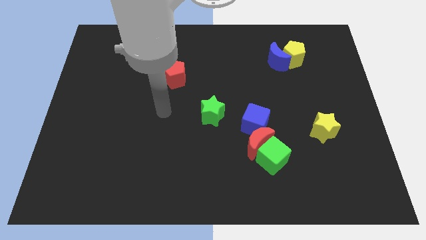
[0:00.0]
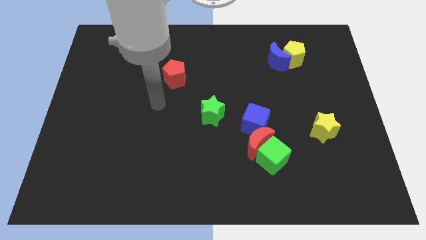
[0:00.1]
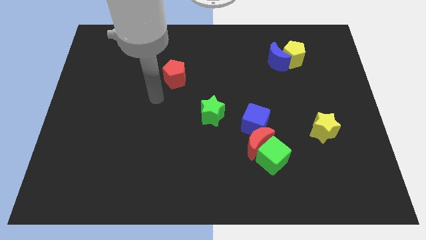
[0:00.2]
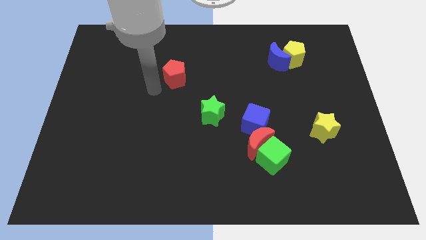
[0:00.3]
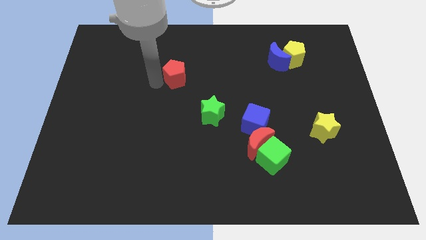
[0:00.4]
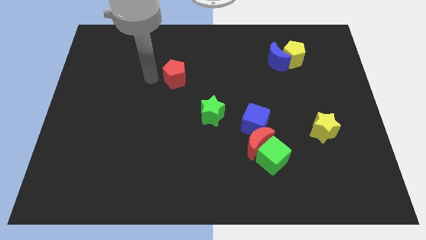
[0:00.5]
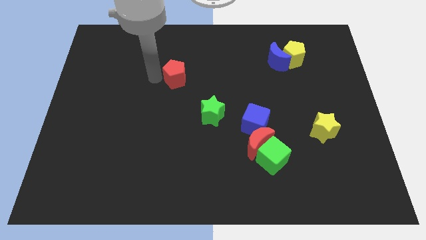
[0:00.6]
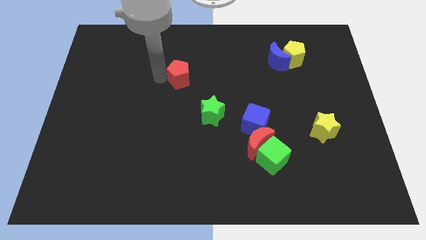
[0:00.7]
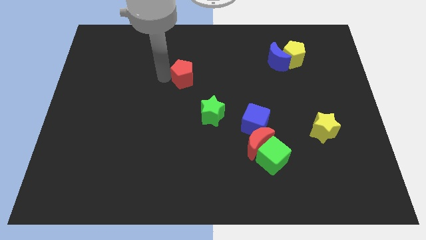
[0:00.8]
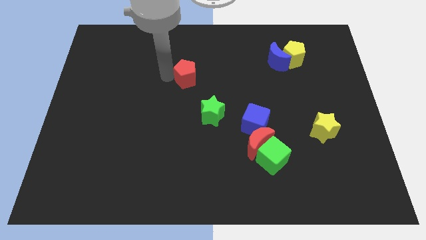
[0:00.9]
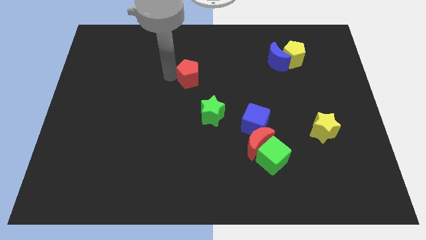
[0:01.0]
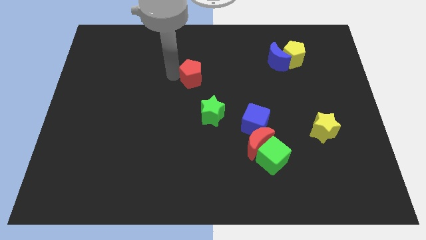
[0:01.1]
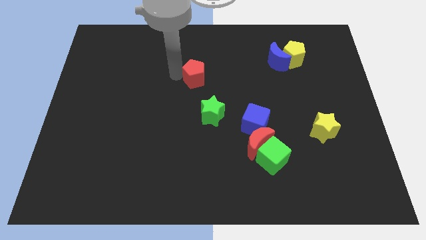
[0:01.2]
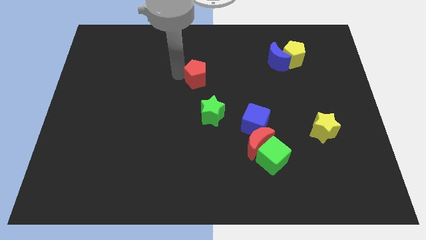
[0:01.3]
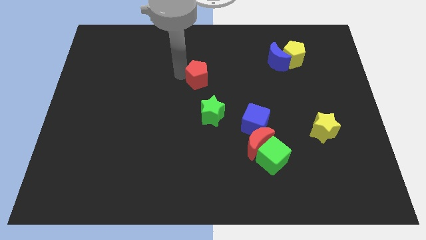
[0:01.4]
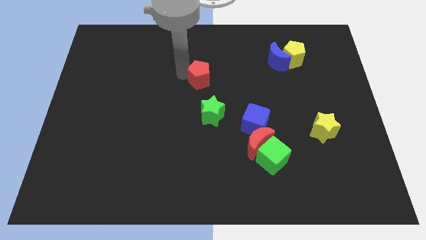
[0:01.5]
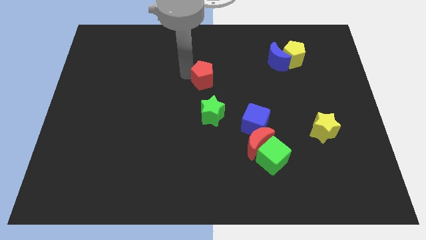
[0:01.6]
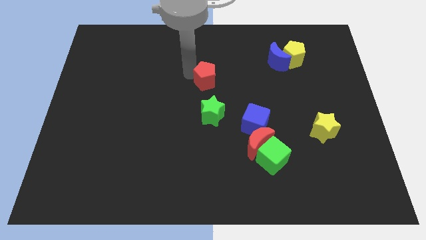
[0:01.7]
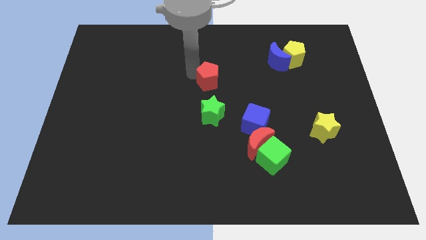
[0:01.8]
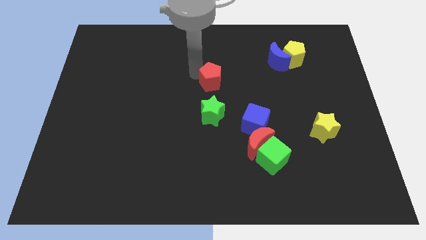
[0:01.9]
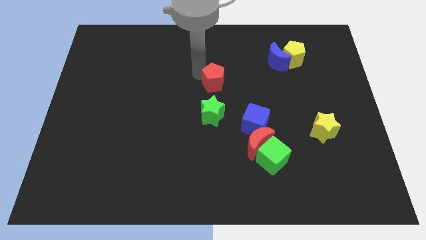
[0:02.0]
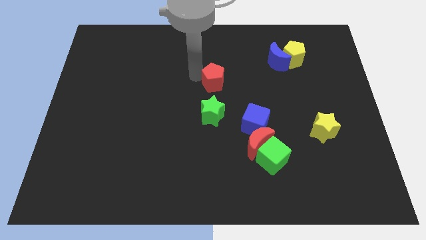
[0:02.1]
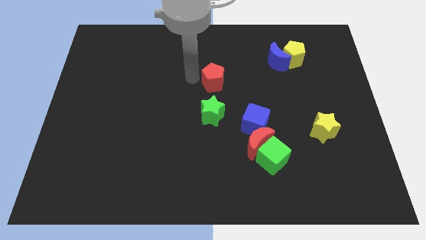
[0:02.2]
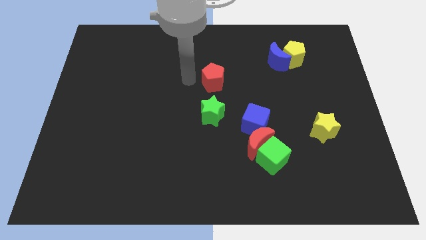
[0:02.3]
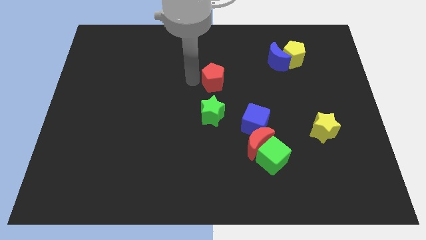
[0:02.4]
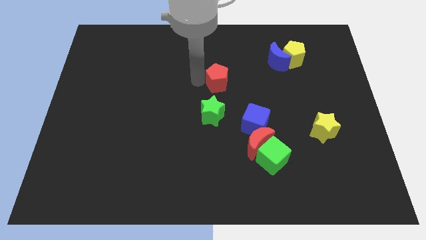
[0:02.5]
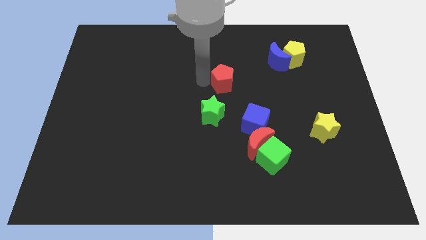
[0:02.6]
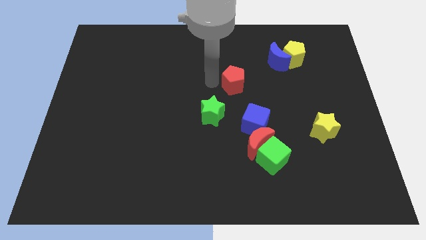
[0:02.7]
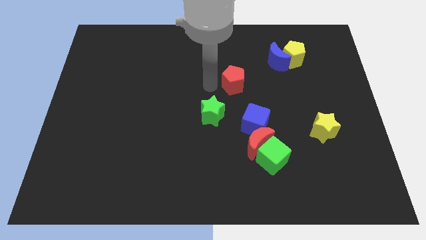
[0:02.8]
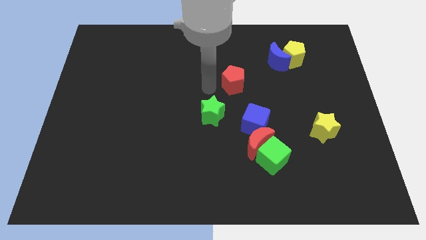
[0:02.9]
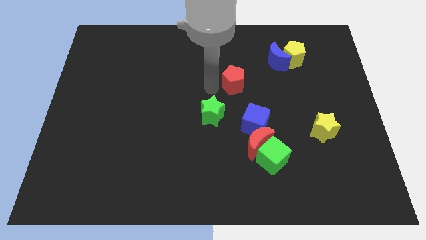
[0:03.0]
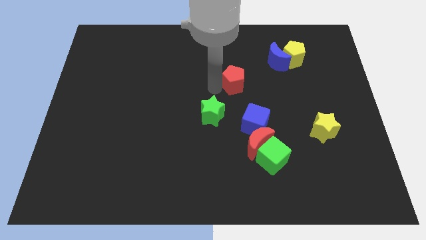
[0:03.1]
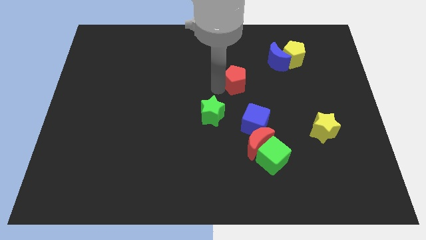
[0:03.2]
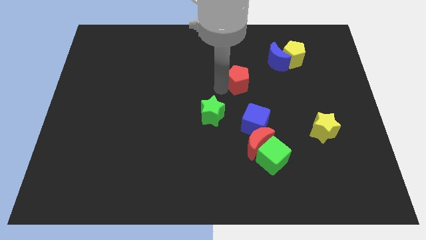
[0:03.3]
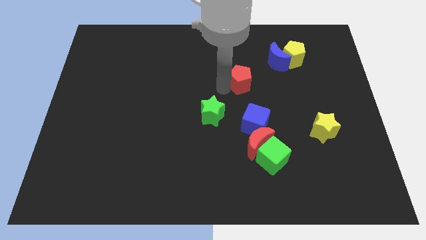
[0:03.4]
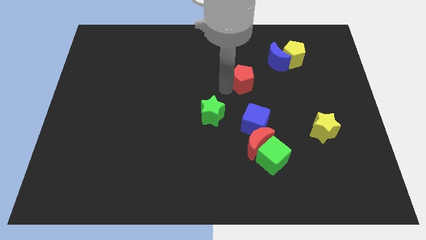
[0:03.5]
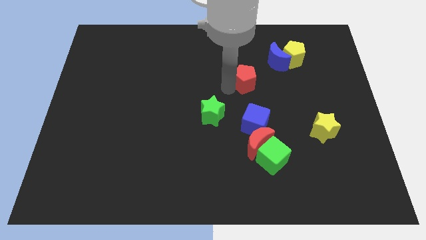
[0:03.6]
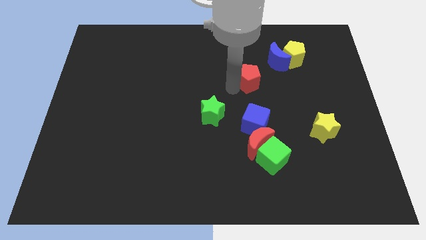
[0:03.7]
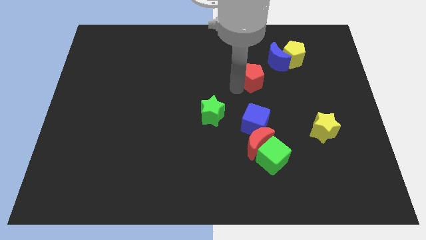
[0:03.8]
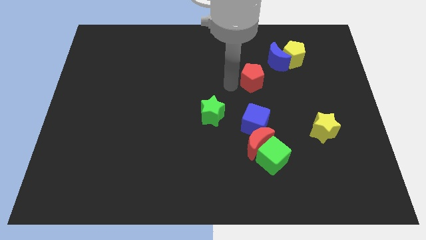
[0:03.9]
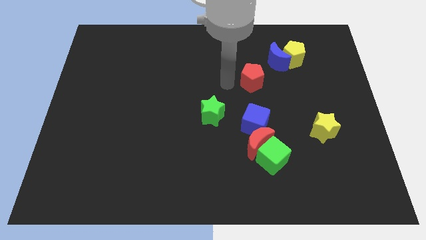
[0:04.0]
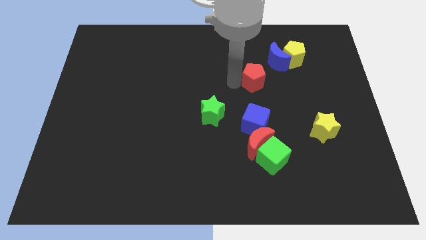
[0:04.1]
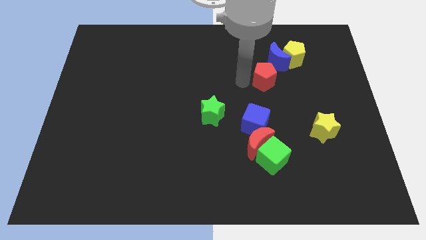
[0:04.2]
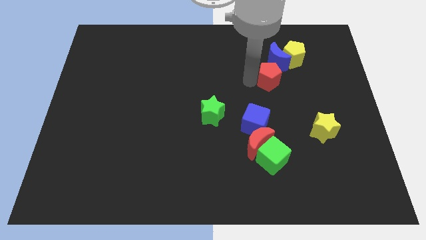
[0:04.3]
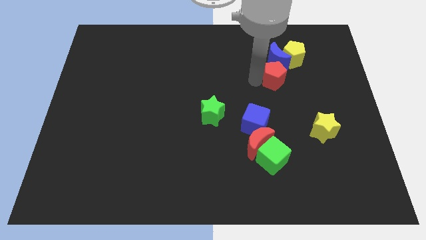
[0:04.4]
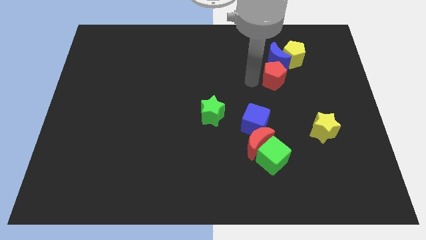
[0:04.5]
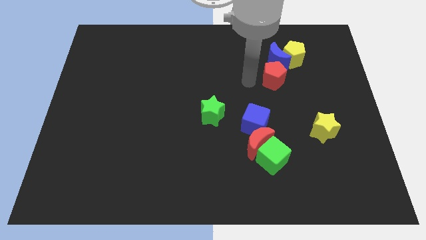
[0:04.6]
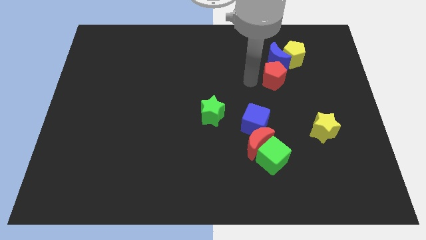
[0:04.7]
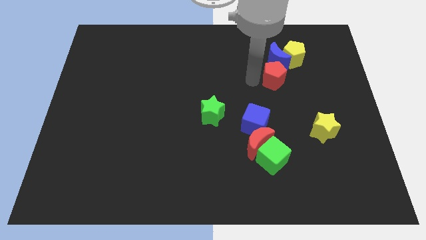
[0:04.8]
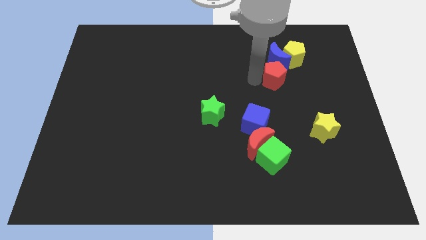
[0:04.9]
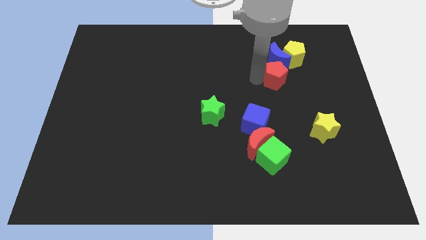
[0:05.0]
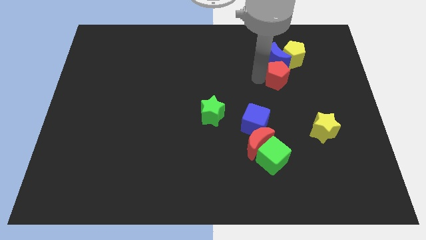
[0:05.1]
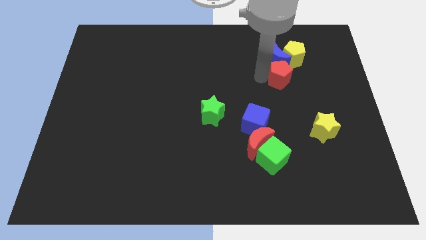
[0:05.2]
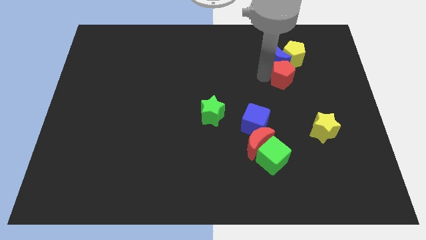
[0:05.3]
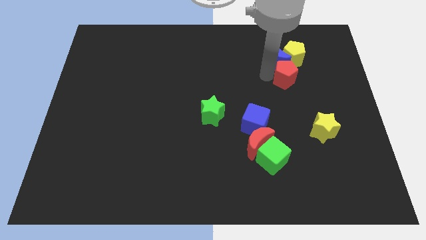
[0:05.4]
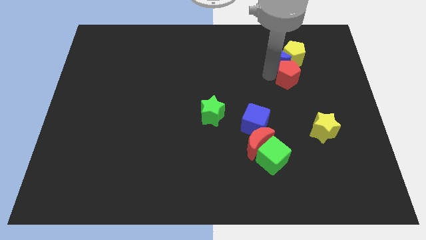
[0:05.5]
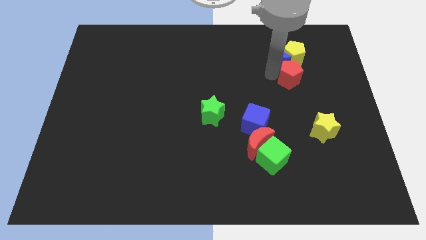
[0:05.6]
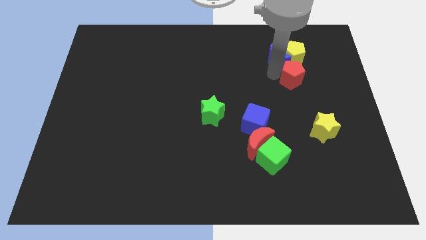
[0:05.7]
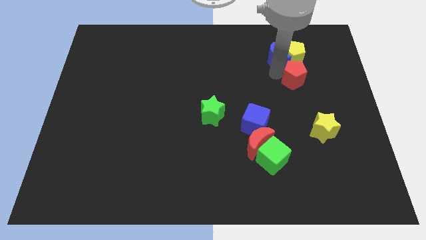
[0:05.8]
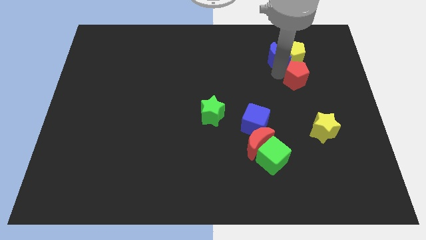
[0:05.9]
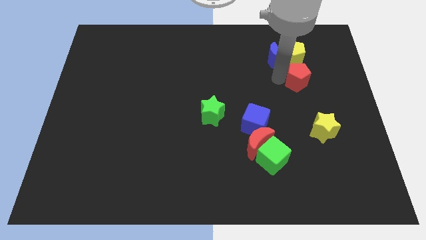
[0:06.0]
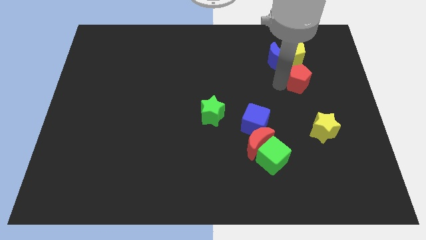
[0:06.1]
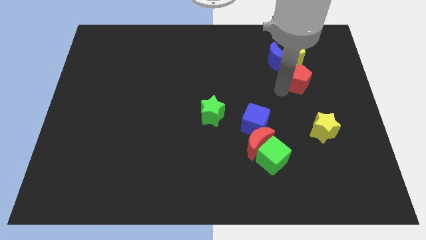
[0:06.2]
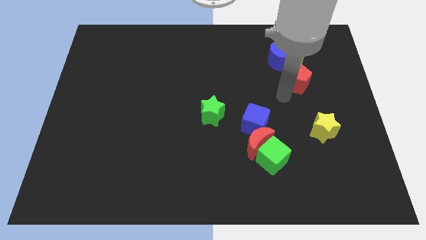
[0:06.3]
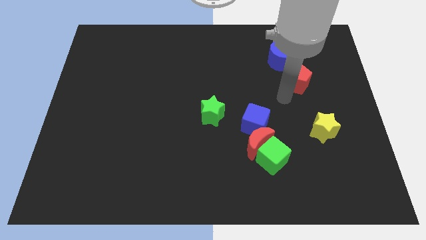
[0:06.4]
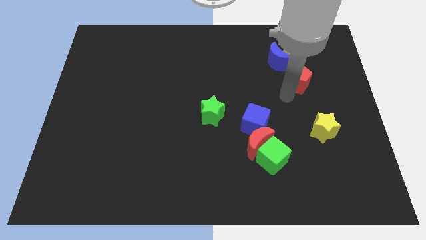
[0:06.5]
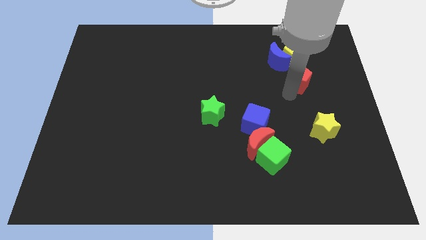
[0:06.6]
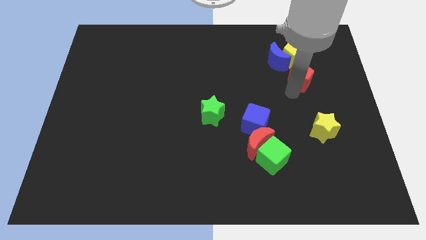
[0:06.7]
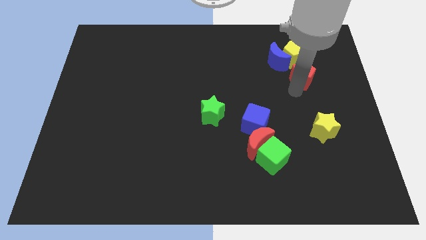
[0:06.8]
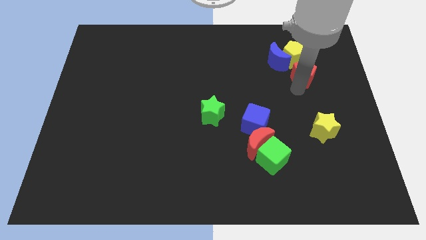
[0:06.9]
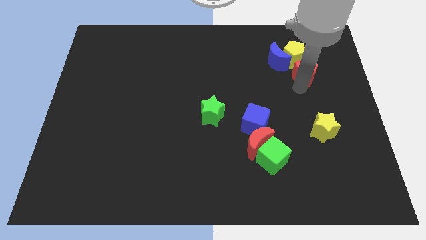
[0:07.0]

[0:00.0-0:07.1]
put the red pentagon to the right of the blue moon
